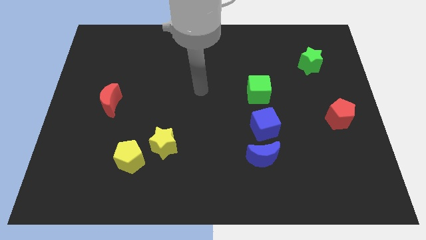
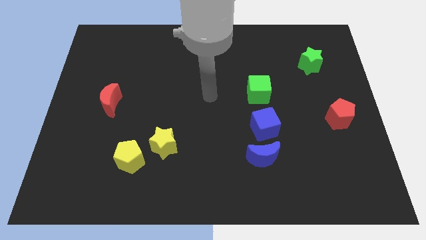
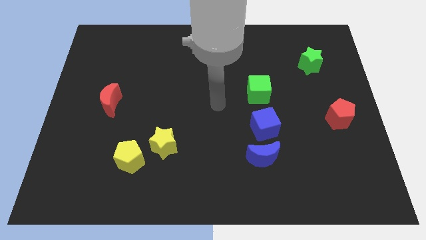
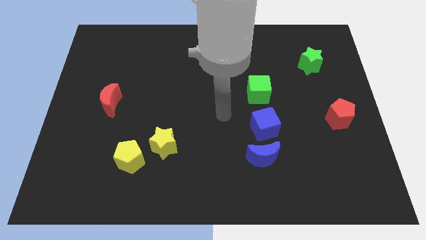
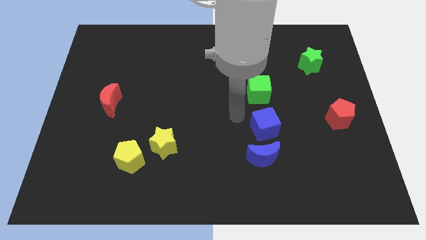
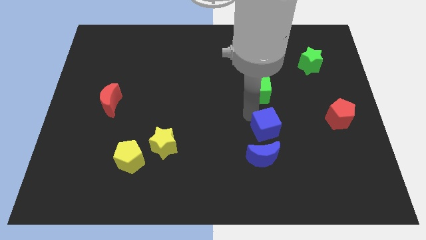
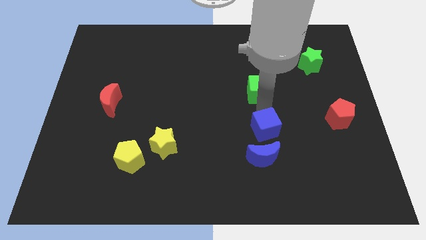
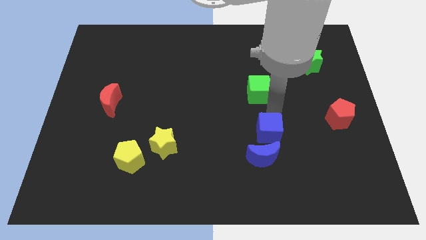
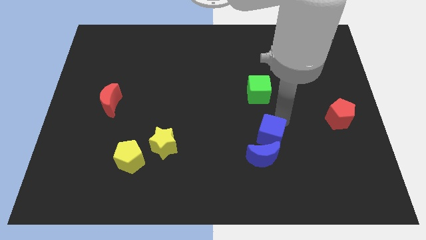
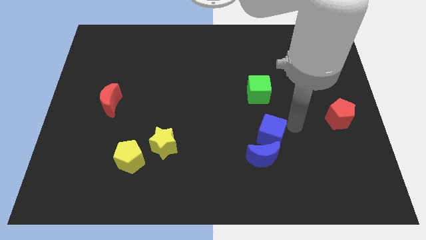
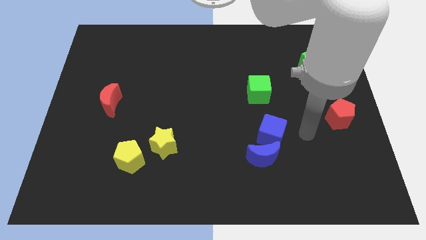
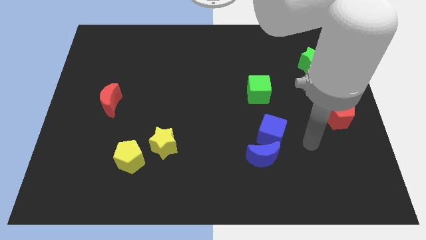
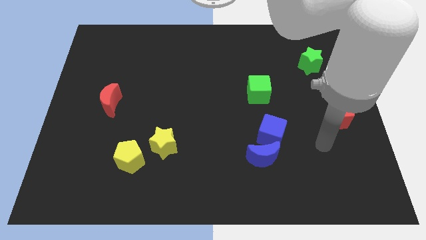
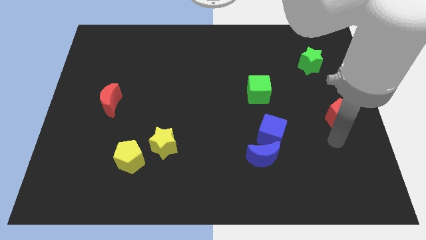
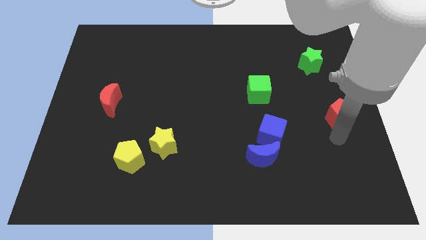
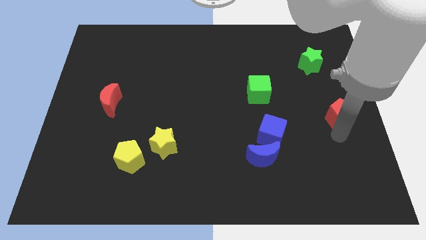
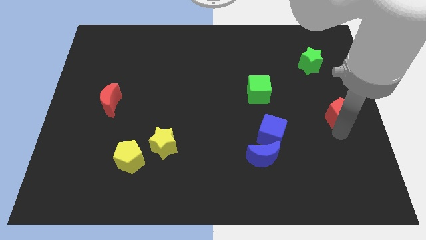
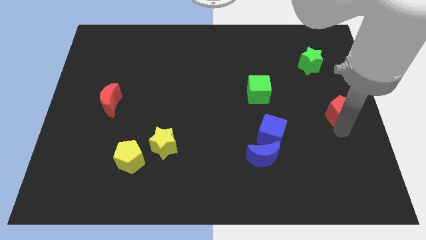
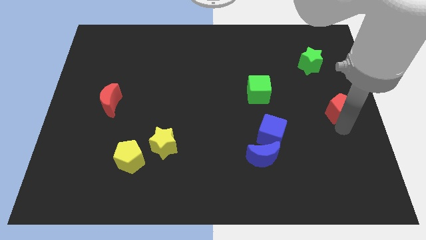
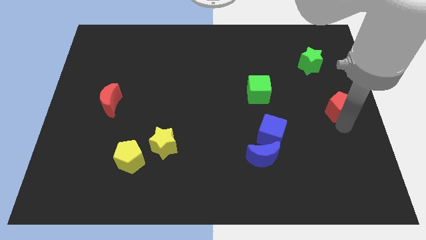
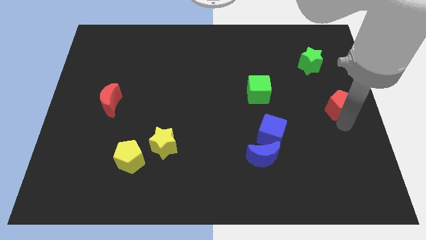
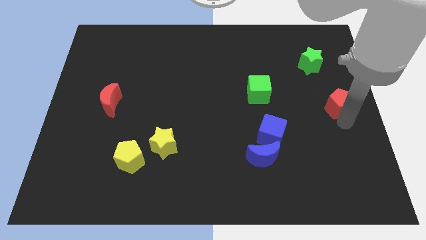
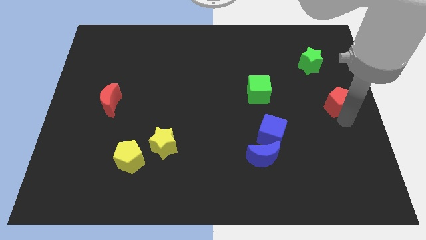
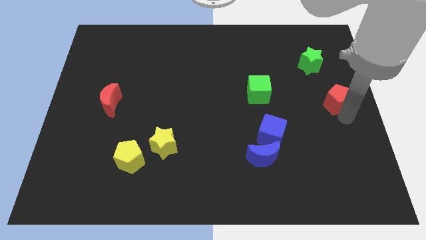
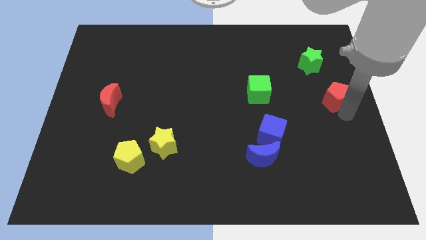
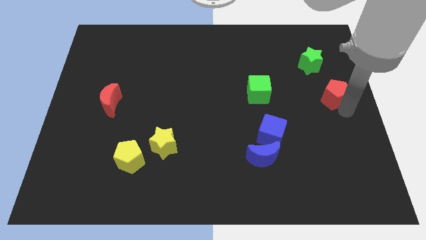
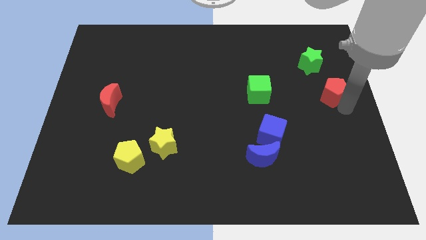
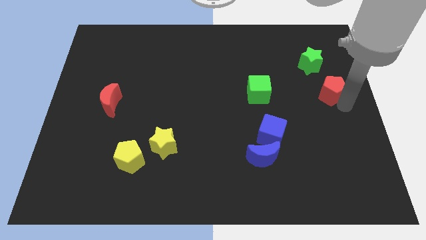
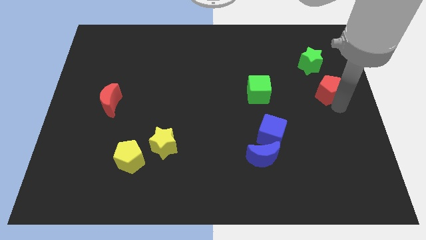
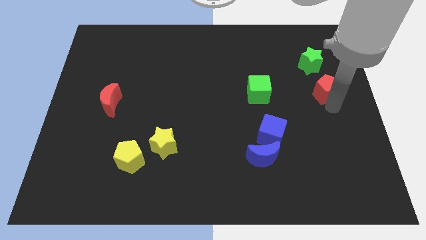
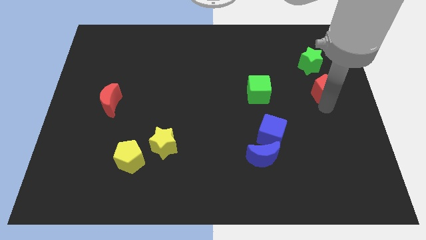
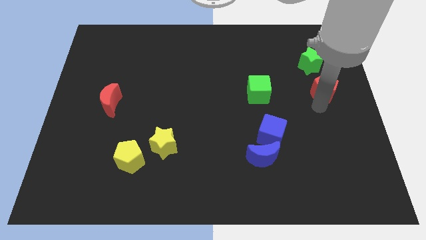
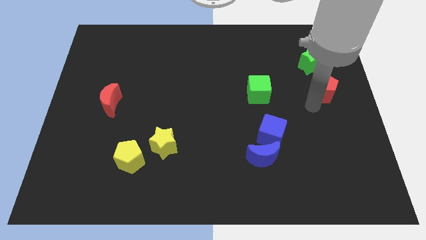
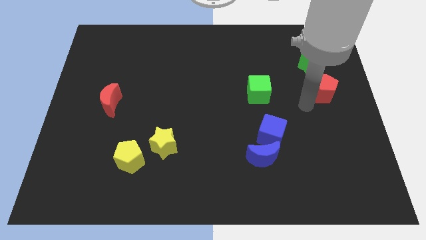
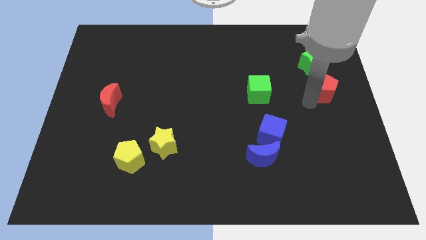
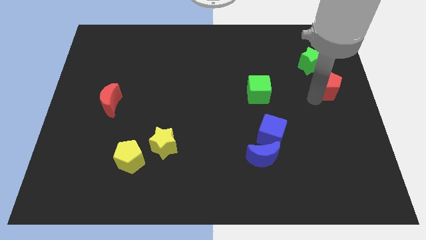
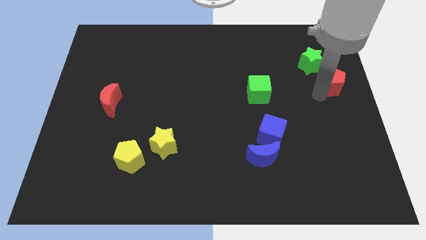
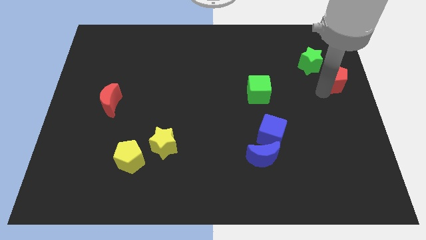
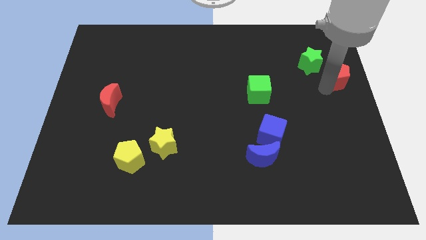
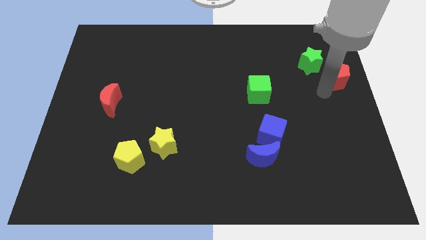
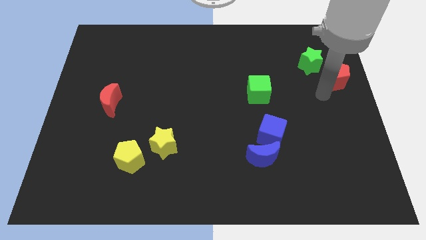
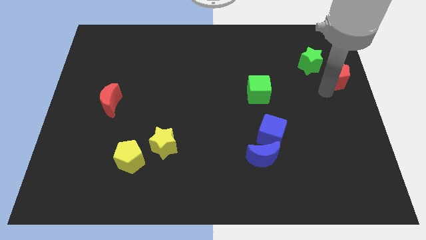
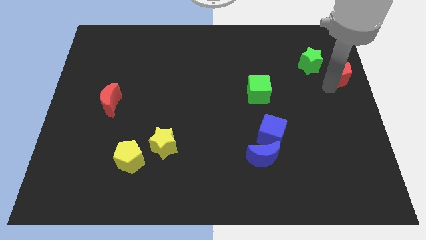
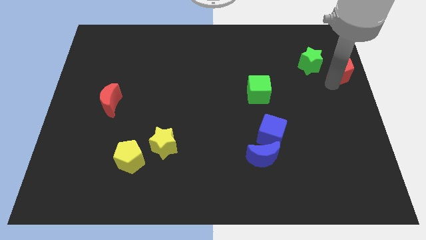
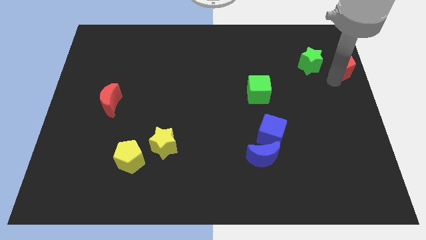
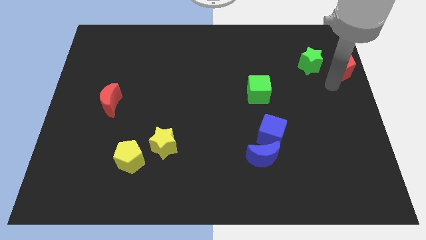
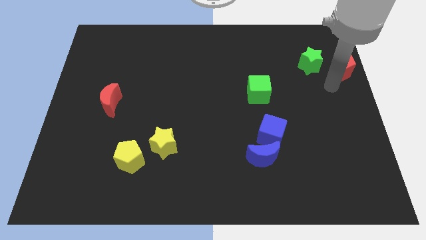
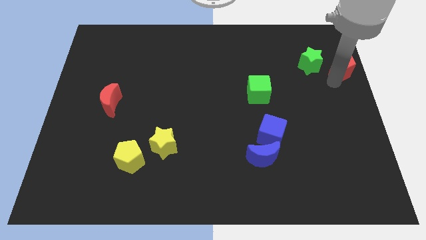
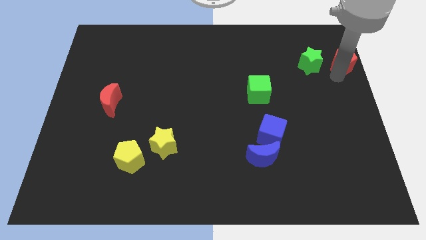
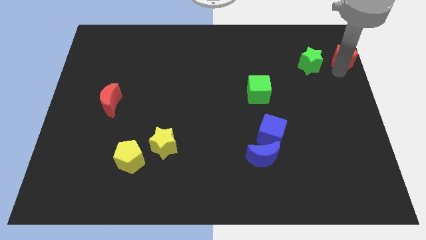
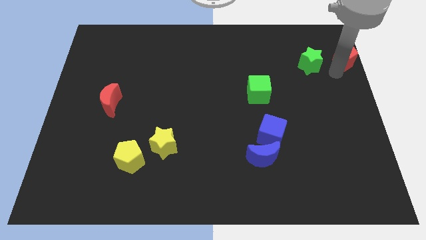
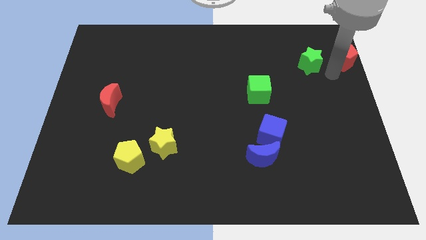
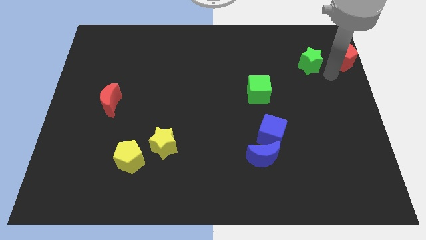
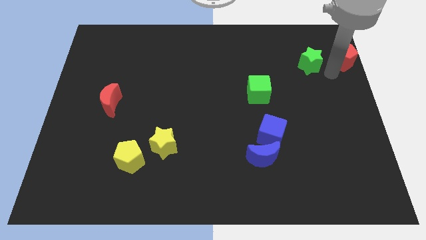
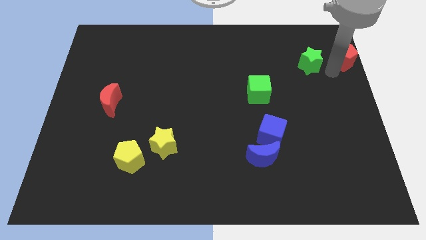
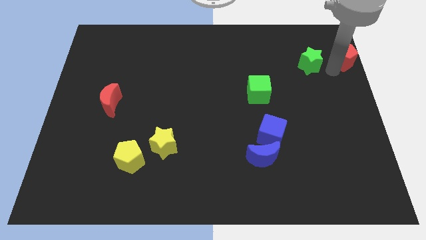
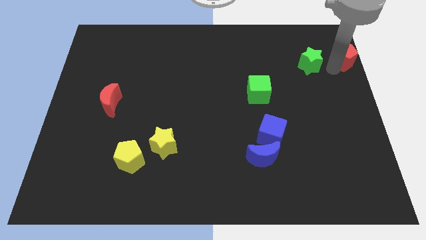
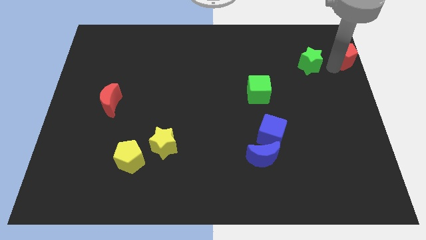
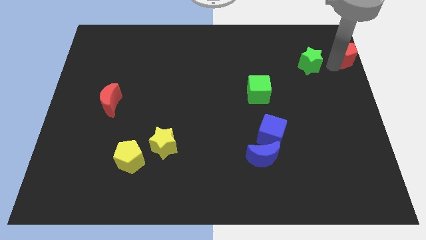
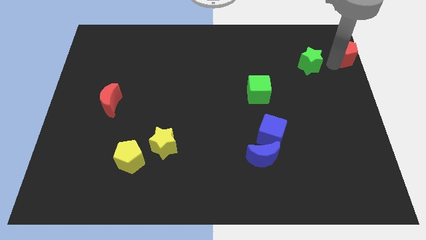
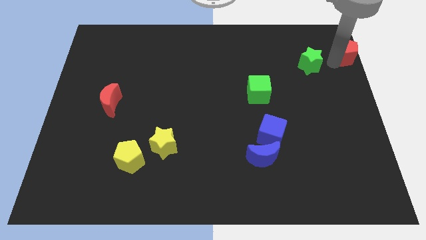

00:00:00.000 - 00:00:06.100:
put the red pentagon to the top right

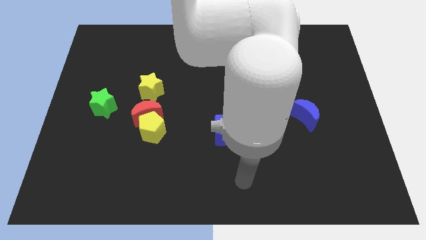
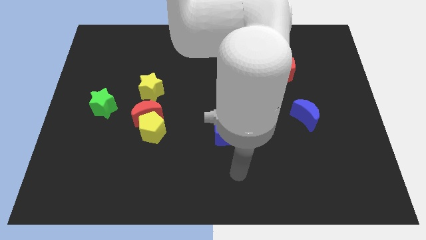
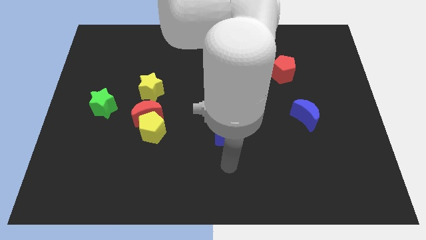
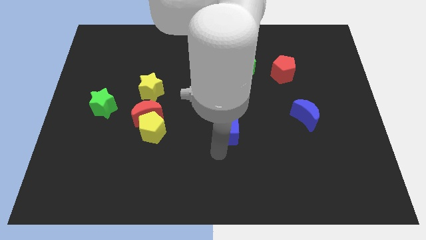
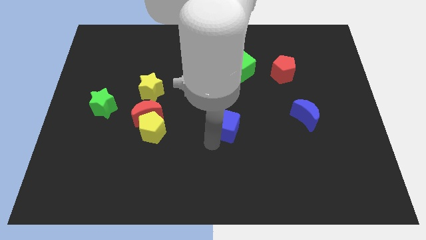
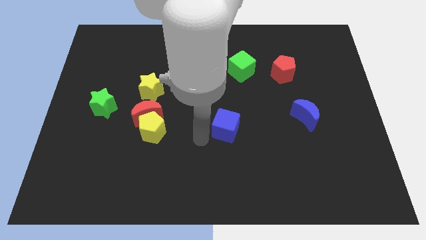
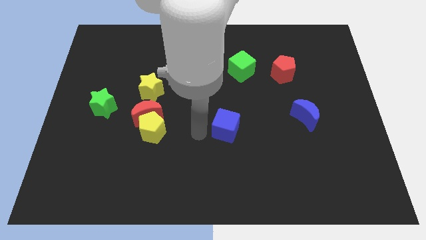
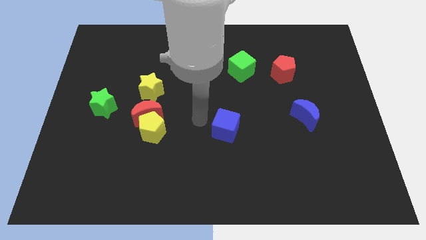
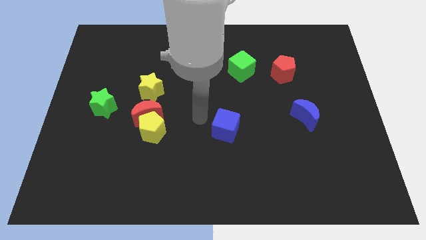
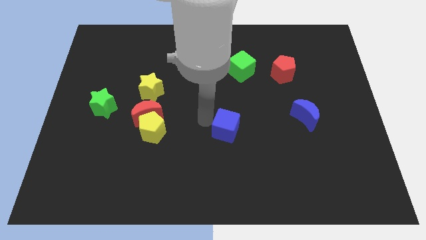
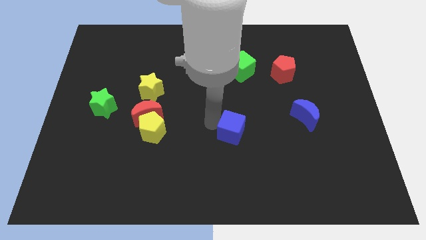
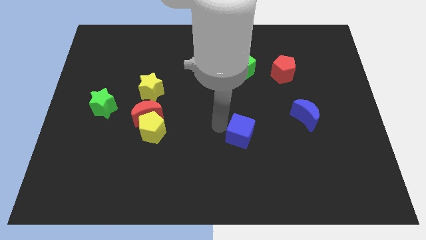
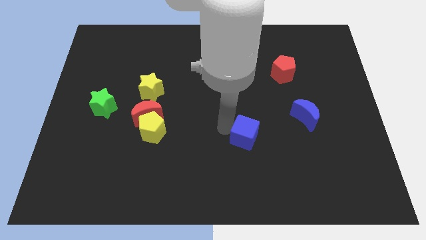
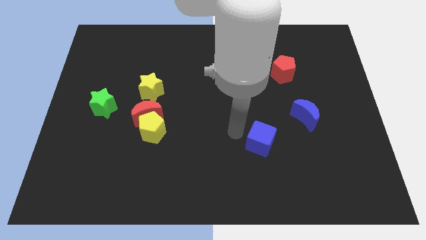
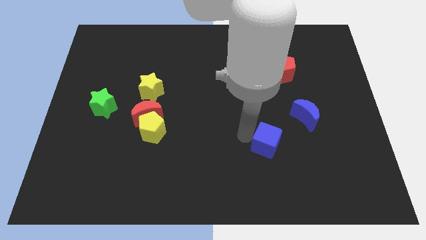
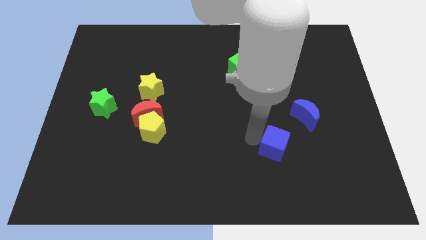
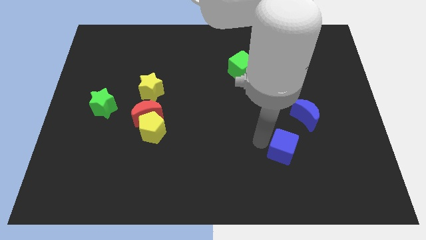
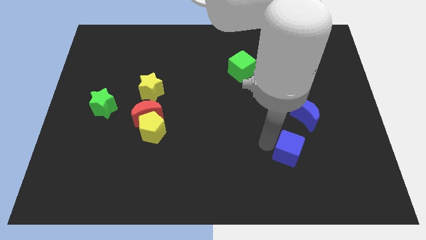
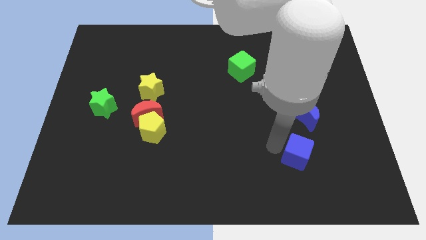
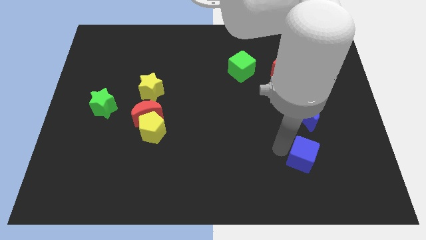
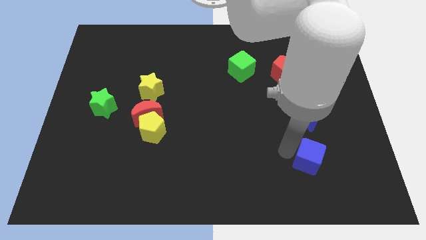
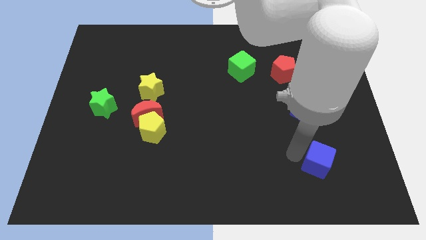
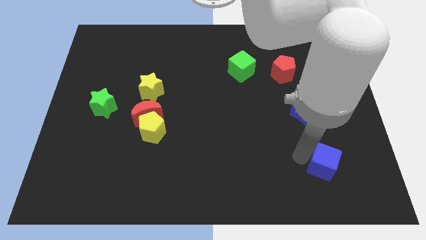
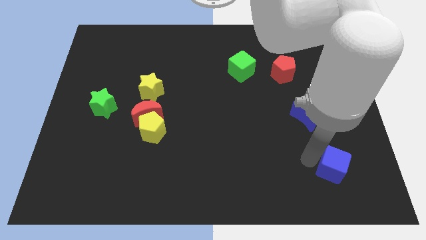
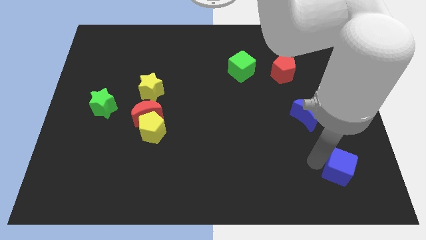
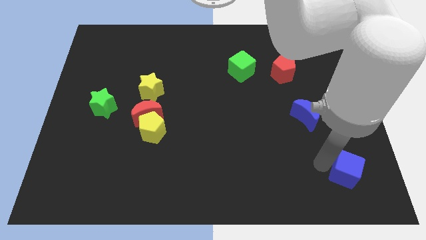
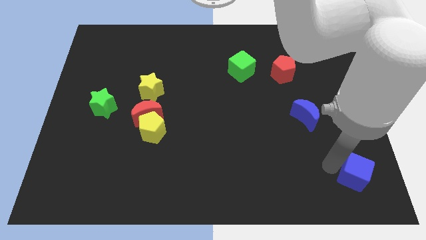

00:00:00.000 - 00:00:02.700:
move the blue cube to the bottom right of the board
